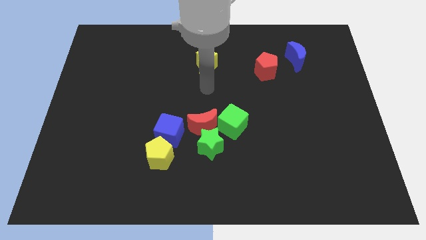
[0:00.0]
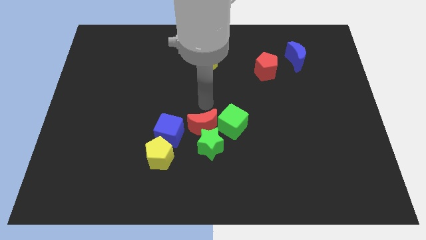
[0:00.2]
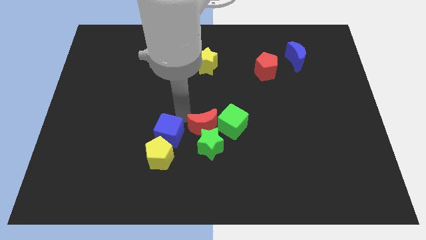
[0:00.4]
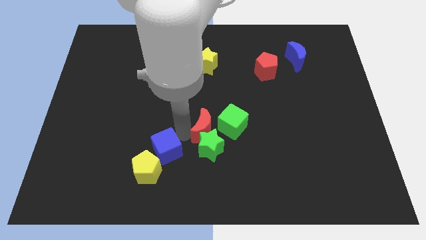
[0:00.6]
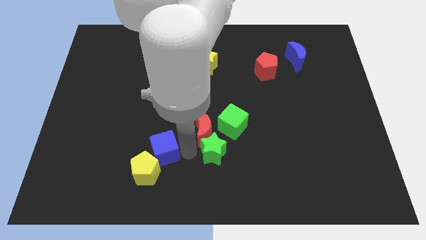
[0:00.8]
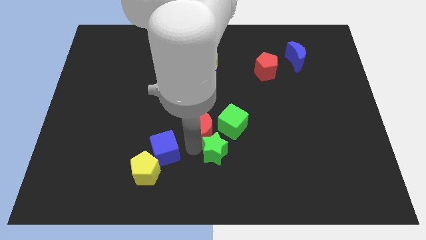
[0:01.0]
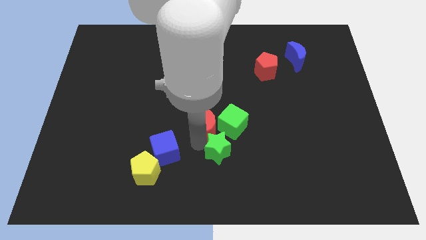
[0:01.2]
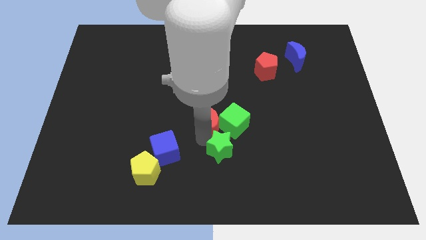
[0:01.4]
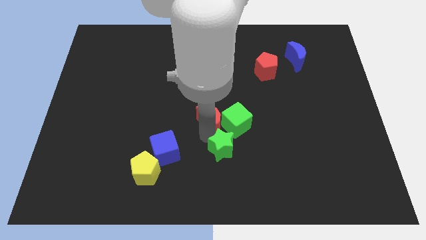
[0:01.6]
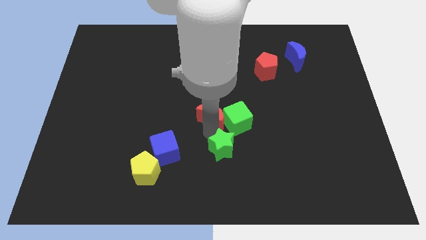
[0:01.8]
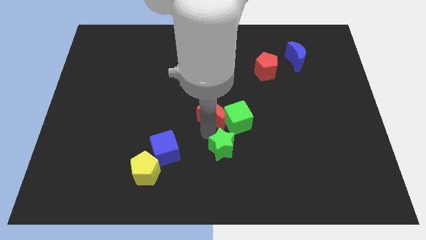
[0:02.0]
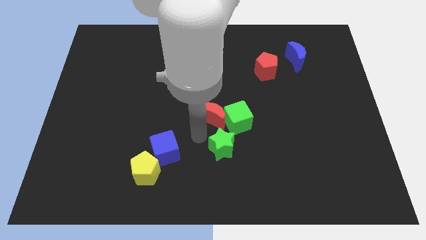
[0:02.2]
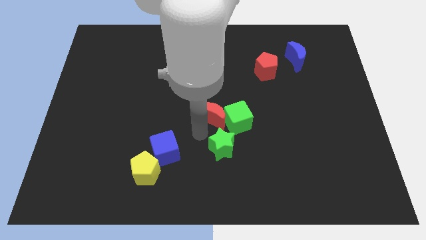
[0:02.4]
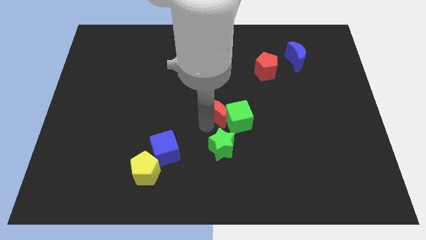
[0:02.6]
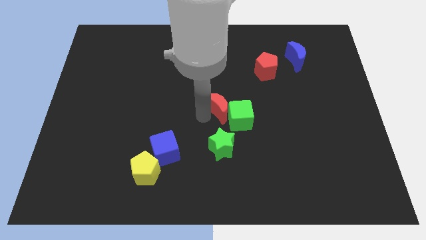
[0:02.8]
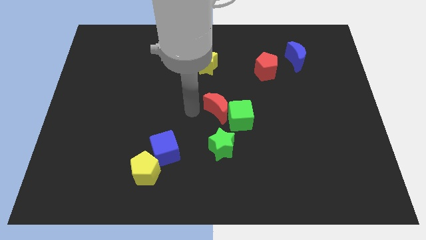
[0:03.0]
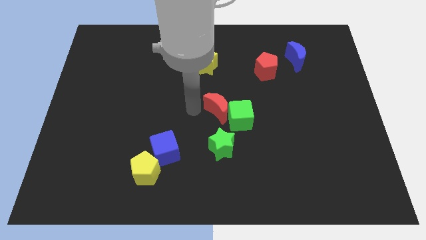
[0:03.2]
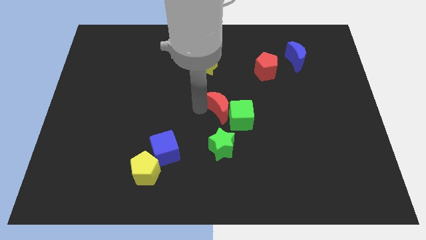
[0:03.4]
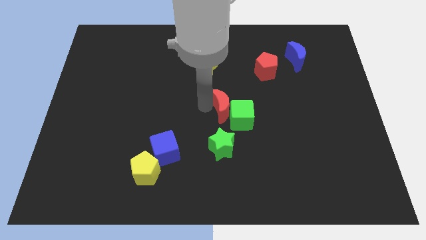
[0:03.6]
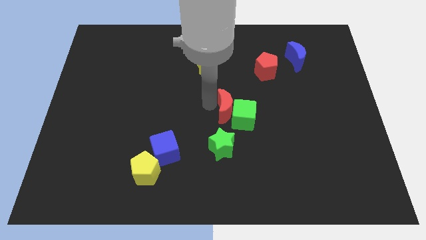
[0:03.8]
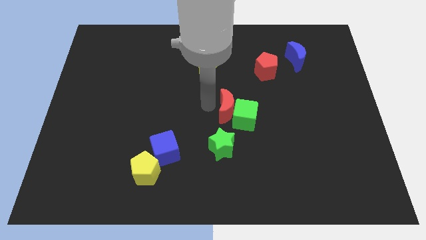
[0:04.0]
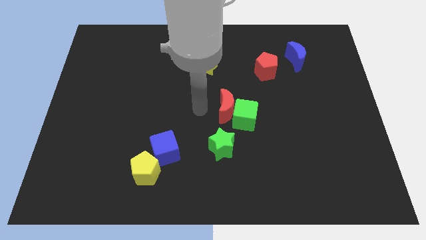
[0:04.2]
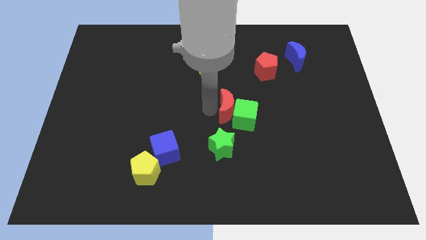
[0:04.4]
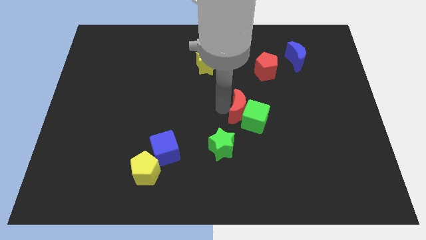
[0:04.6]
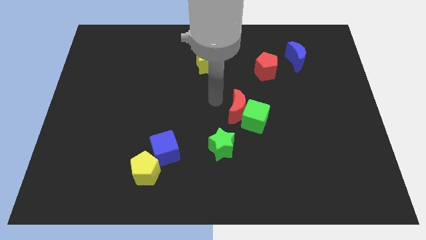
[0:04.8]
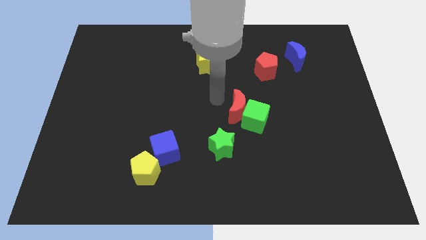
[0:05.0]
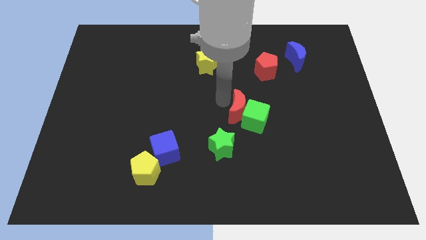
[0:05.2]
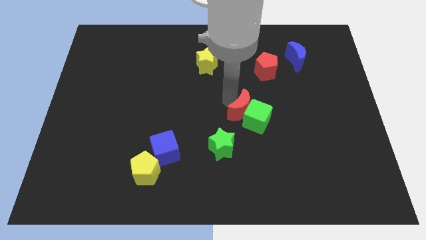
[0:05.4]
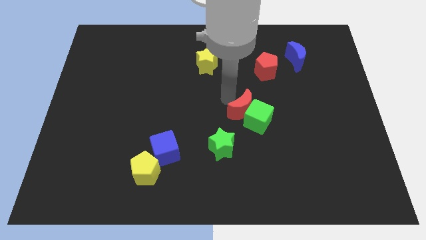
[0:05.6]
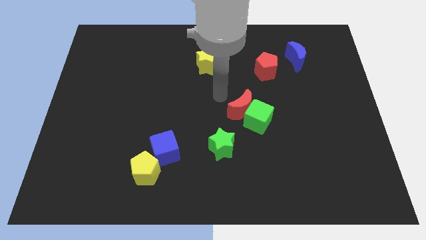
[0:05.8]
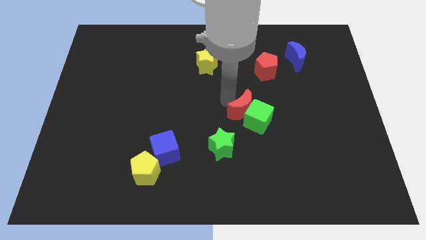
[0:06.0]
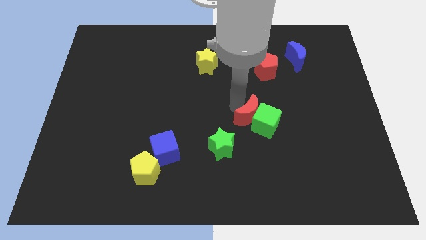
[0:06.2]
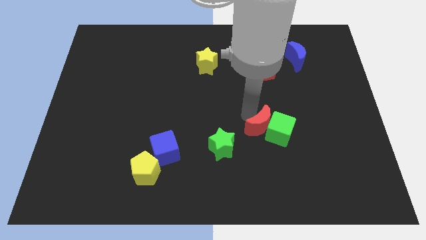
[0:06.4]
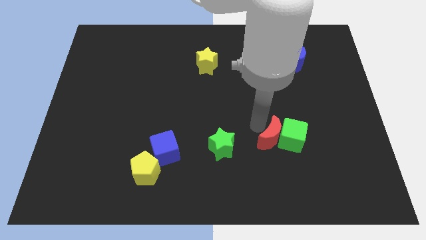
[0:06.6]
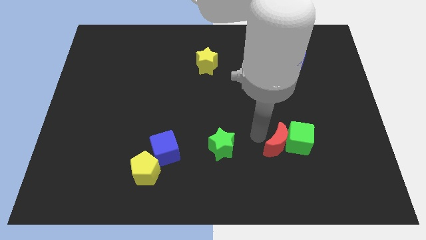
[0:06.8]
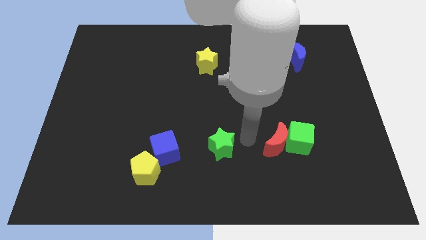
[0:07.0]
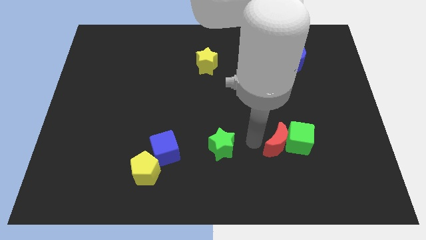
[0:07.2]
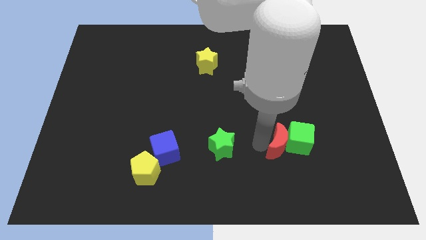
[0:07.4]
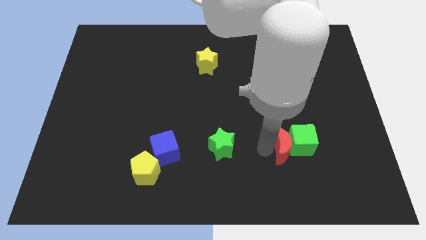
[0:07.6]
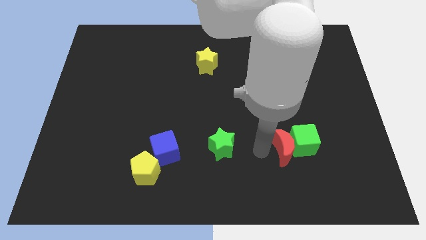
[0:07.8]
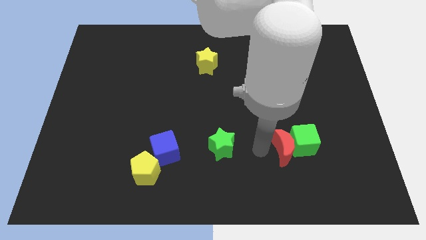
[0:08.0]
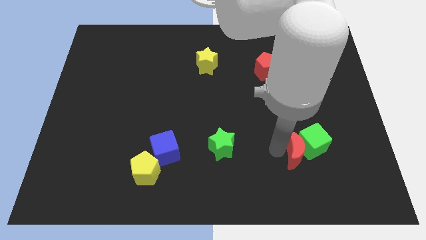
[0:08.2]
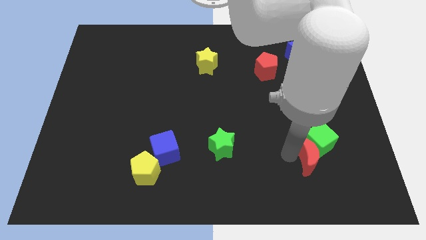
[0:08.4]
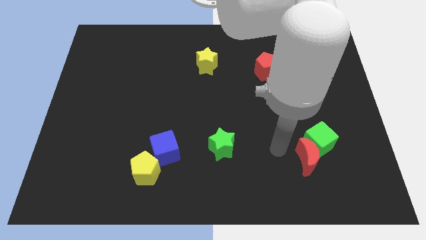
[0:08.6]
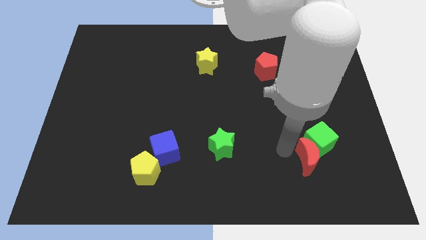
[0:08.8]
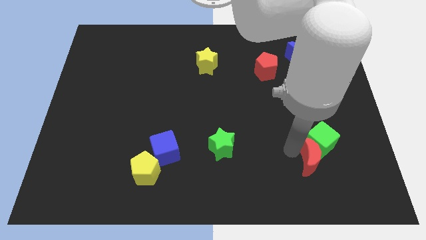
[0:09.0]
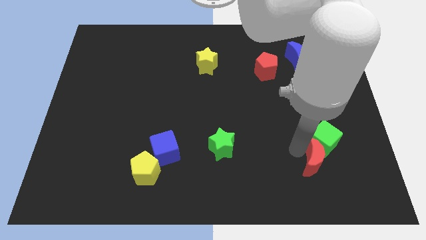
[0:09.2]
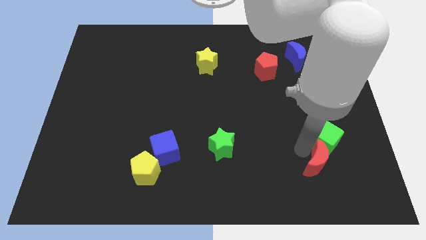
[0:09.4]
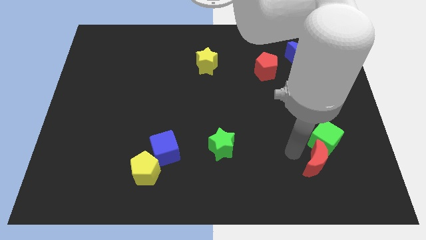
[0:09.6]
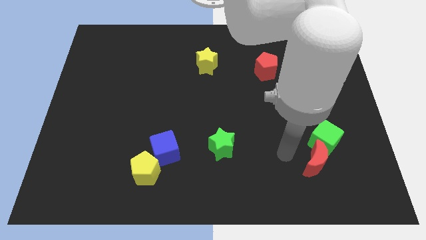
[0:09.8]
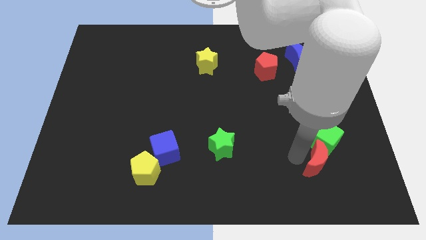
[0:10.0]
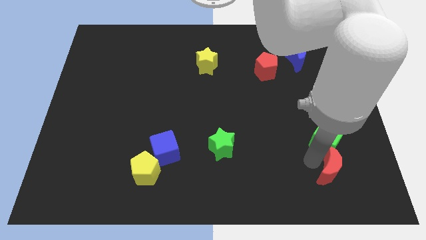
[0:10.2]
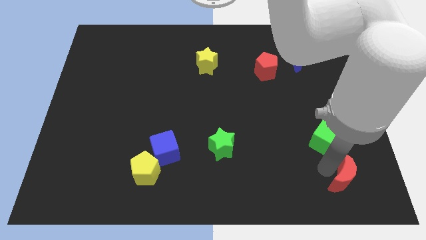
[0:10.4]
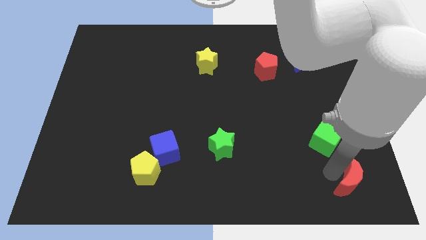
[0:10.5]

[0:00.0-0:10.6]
slide the red moon to the bottom right of the board
